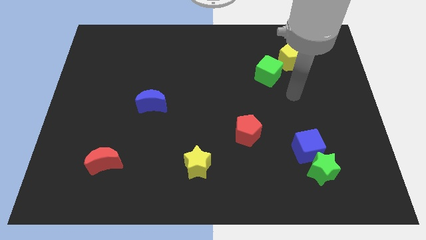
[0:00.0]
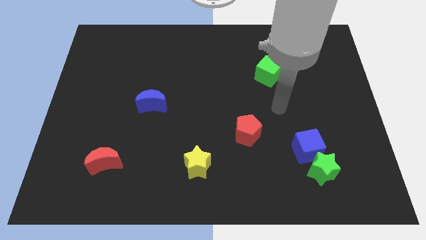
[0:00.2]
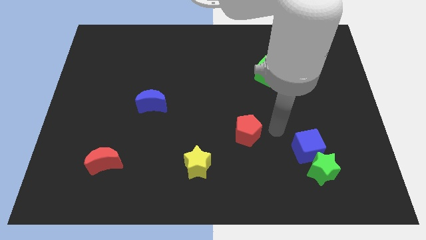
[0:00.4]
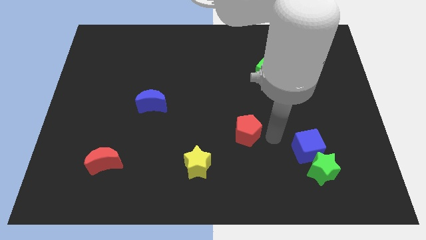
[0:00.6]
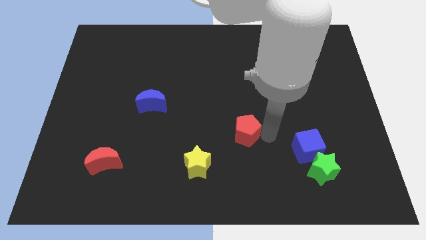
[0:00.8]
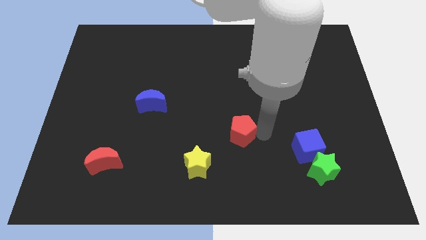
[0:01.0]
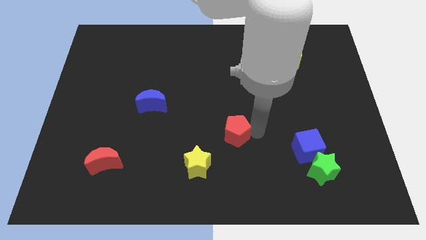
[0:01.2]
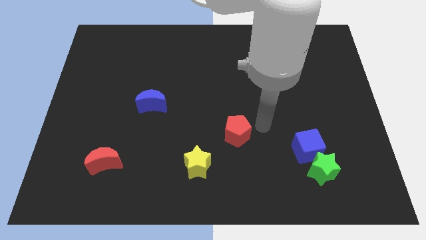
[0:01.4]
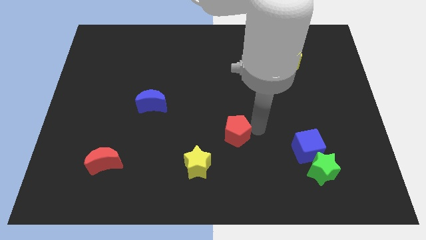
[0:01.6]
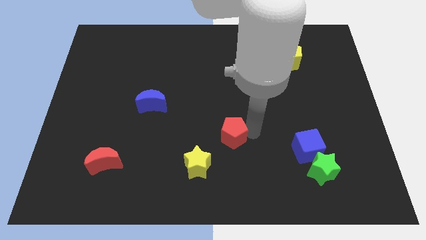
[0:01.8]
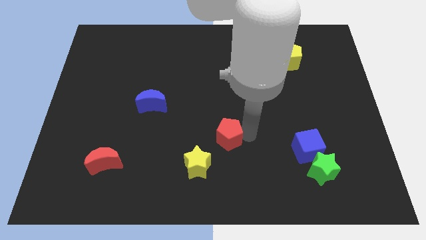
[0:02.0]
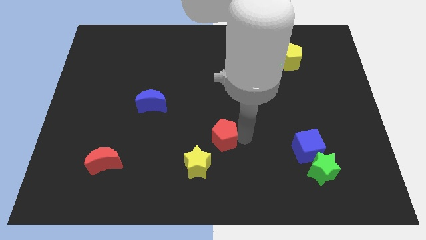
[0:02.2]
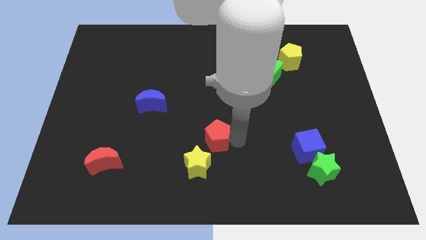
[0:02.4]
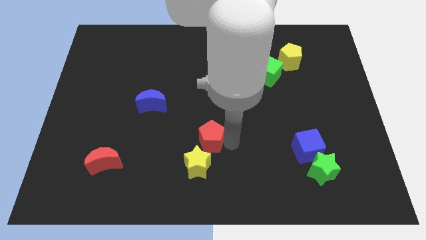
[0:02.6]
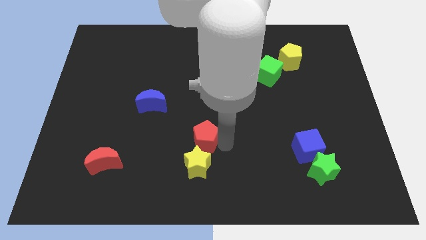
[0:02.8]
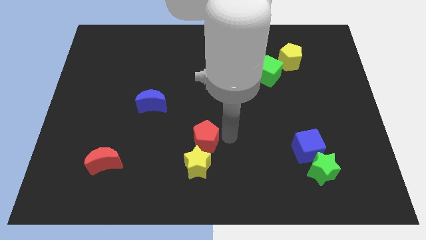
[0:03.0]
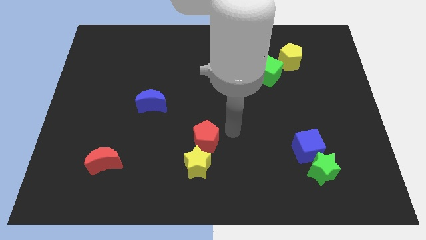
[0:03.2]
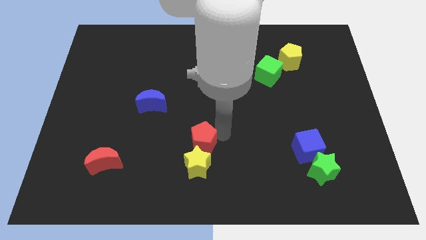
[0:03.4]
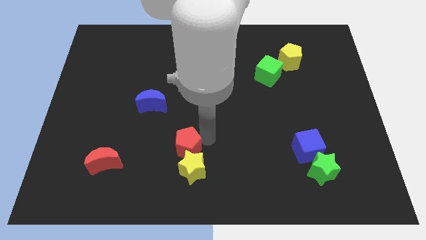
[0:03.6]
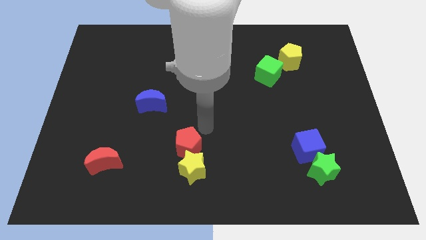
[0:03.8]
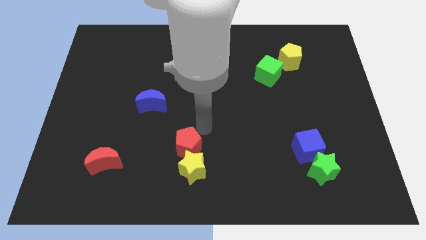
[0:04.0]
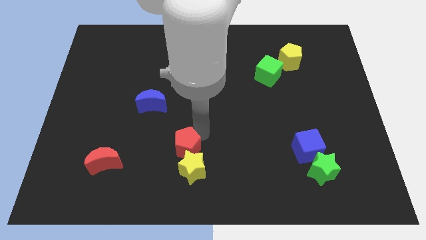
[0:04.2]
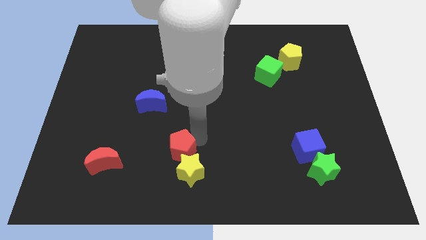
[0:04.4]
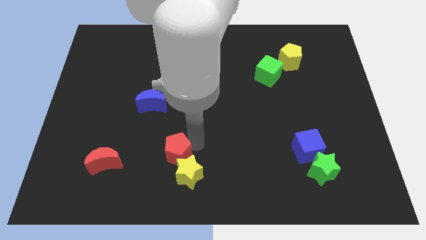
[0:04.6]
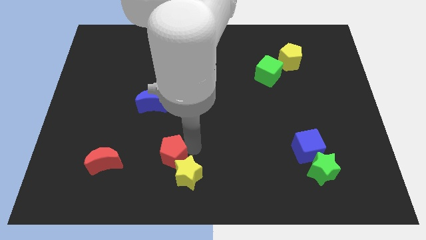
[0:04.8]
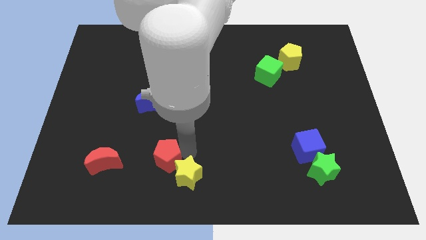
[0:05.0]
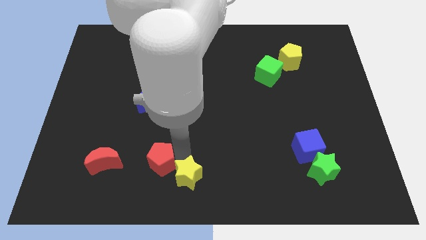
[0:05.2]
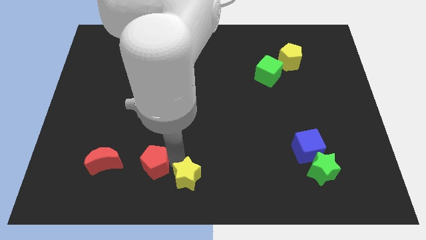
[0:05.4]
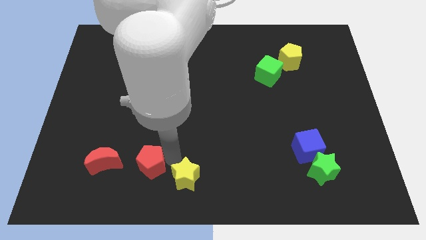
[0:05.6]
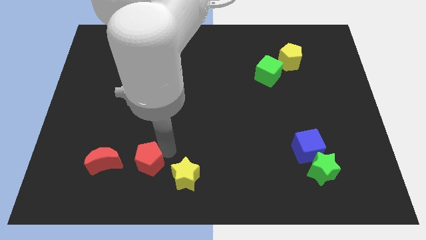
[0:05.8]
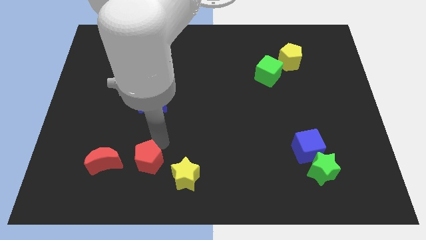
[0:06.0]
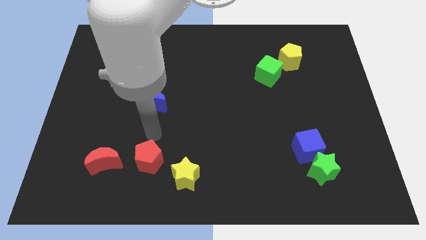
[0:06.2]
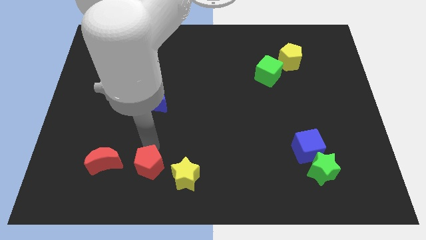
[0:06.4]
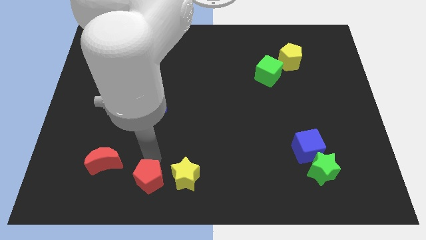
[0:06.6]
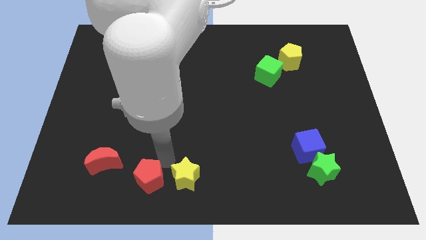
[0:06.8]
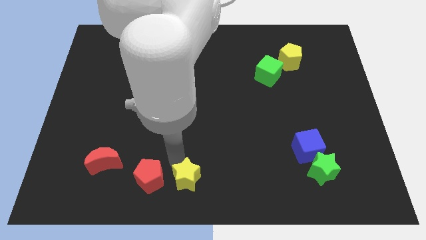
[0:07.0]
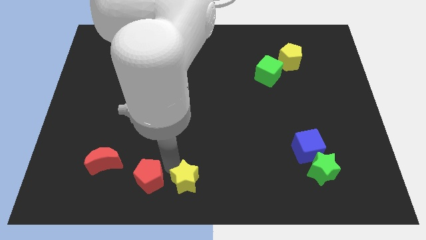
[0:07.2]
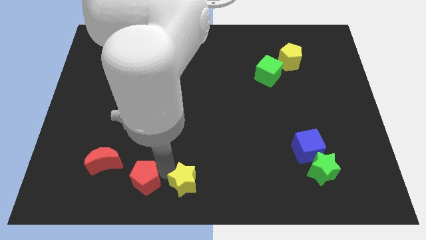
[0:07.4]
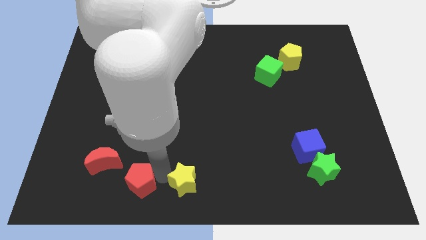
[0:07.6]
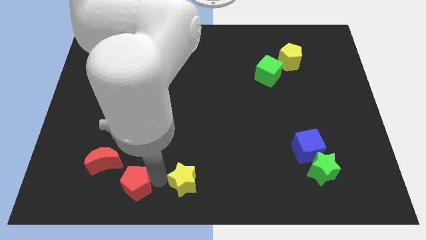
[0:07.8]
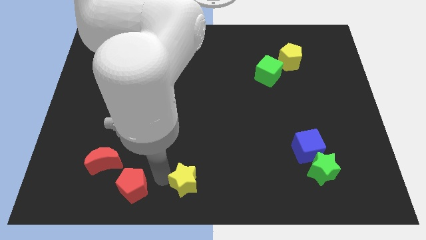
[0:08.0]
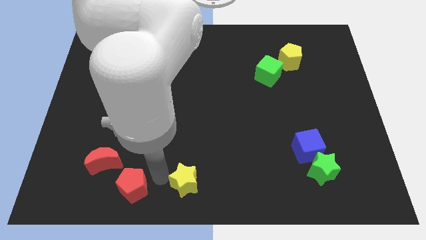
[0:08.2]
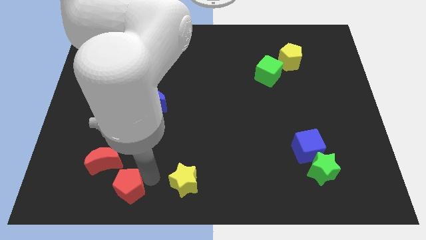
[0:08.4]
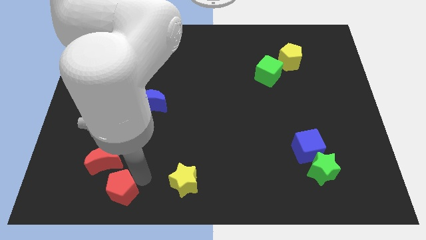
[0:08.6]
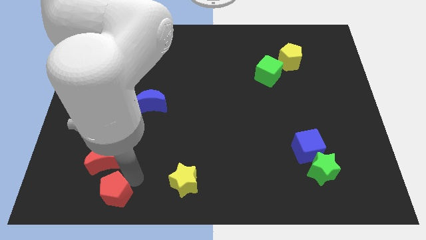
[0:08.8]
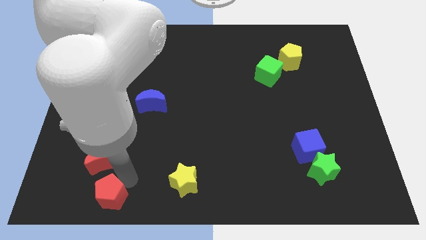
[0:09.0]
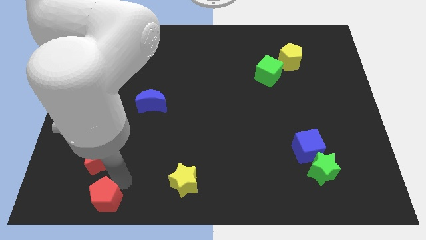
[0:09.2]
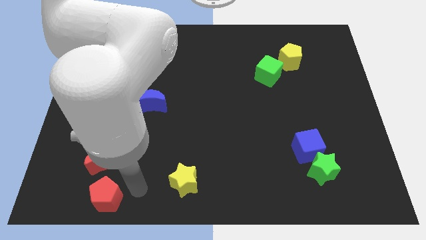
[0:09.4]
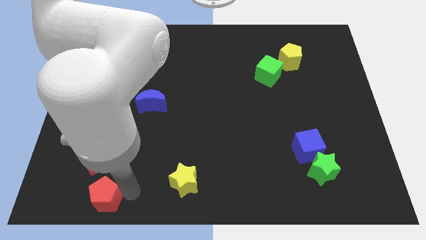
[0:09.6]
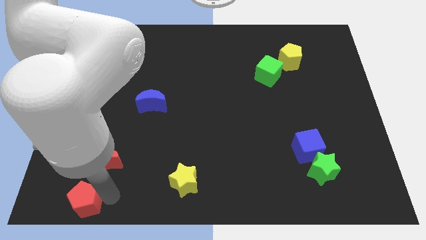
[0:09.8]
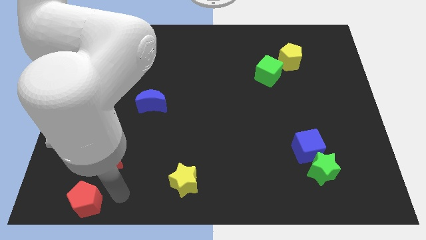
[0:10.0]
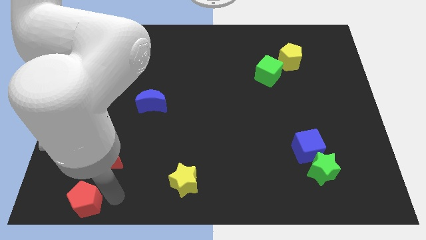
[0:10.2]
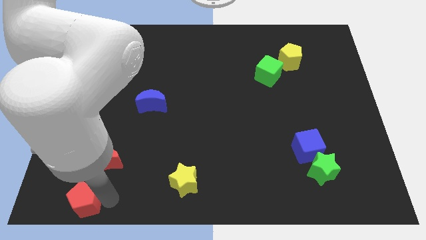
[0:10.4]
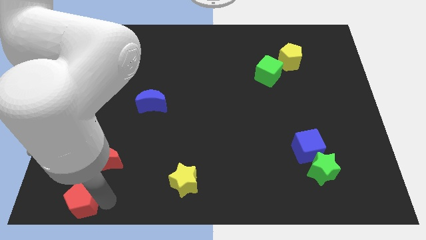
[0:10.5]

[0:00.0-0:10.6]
push the red pentagon to the bottom left of the board

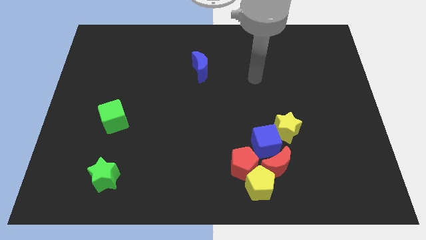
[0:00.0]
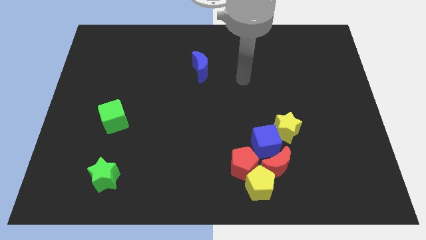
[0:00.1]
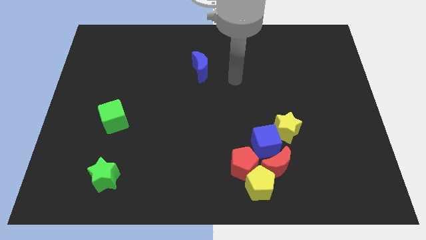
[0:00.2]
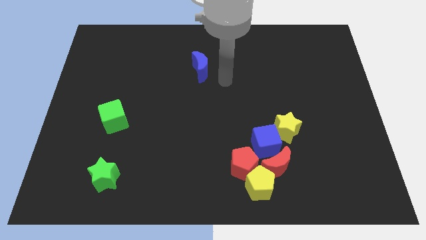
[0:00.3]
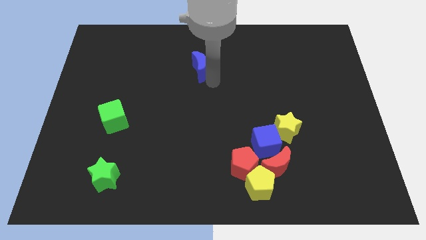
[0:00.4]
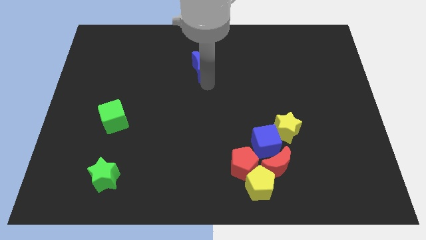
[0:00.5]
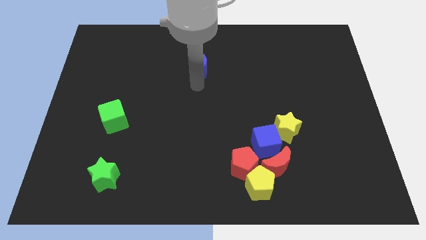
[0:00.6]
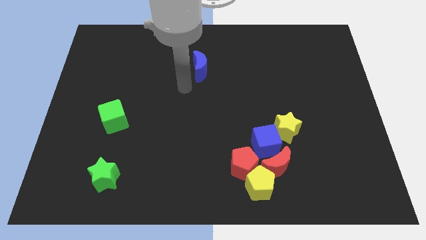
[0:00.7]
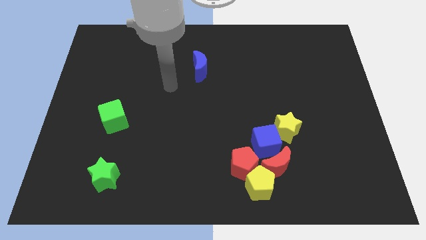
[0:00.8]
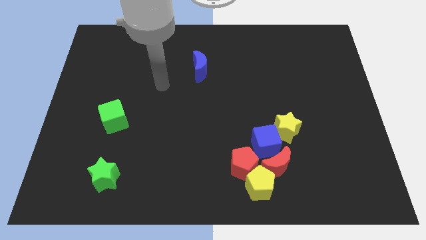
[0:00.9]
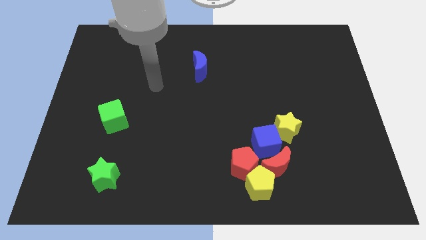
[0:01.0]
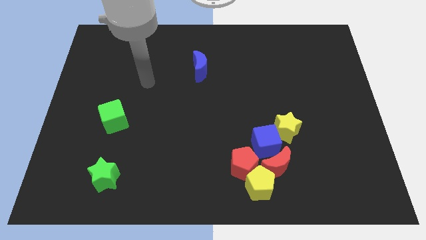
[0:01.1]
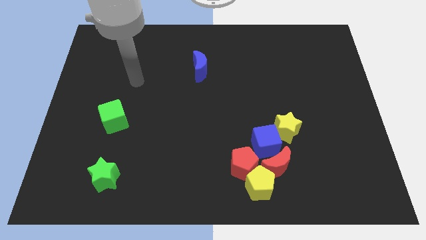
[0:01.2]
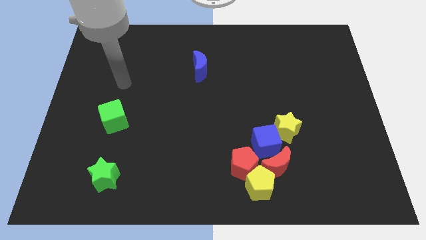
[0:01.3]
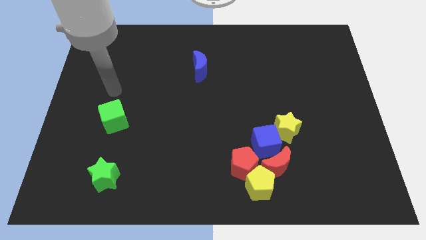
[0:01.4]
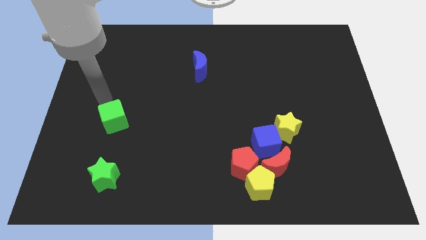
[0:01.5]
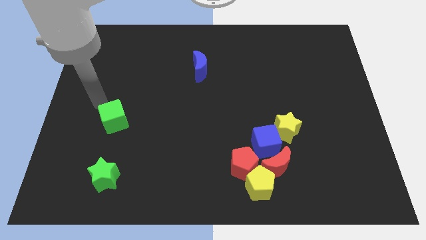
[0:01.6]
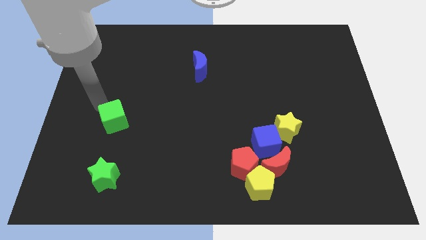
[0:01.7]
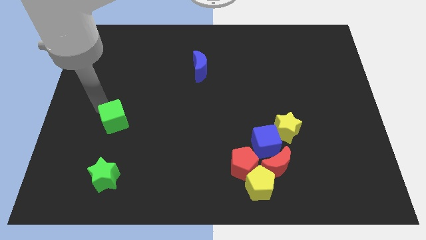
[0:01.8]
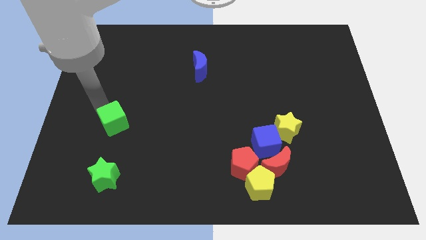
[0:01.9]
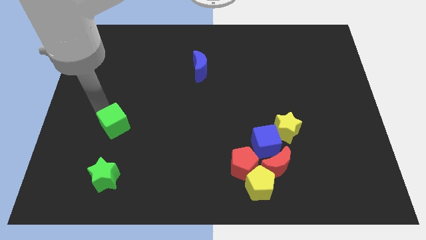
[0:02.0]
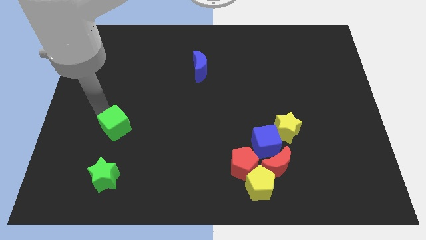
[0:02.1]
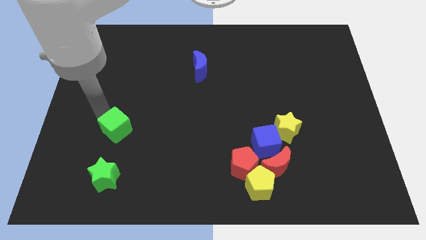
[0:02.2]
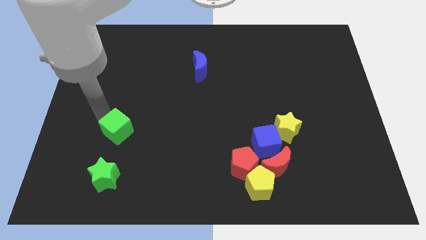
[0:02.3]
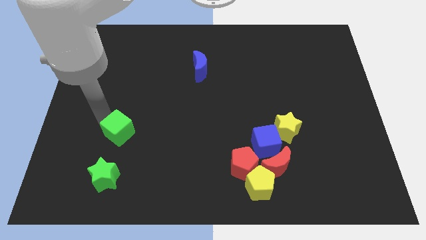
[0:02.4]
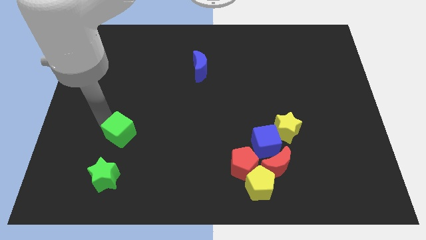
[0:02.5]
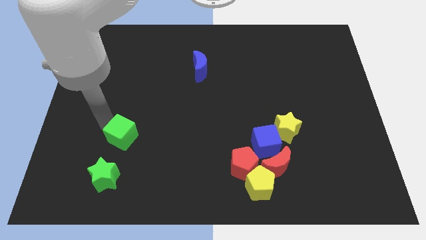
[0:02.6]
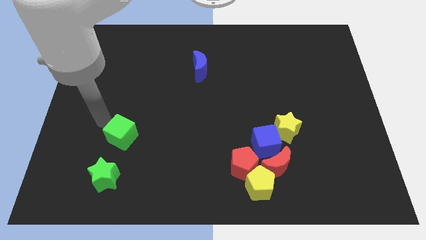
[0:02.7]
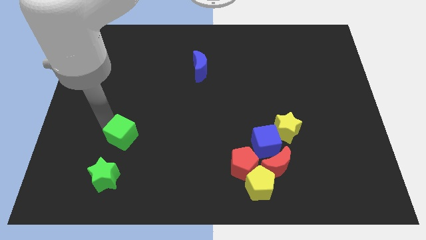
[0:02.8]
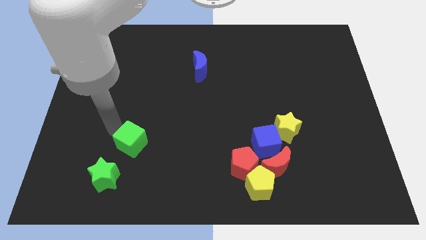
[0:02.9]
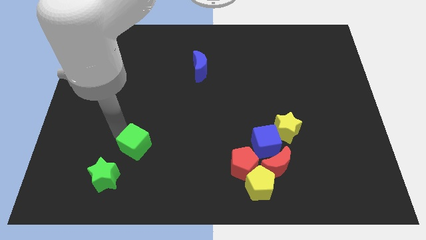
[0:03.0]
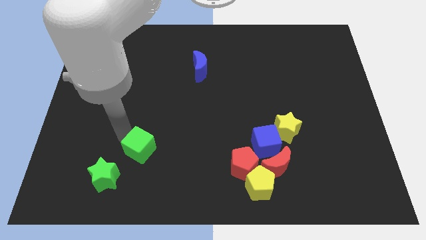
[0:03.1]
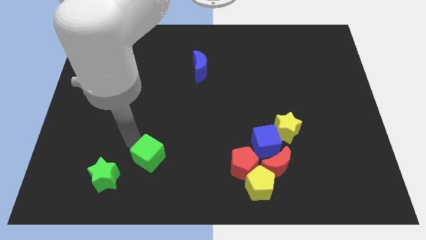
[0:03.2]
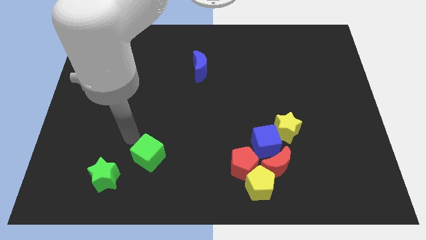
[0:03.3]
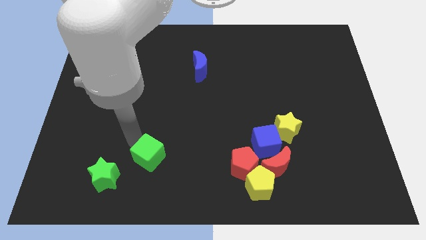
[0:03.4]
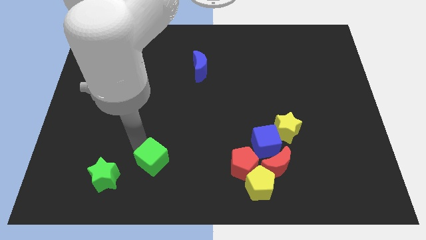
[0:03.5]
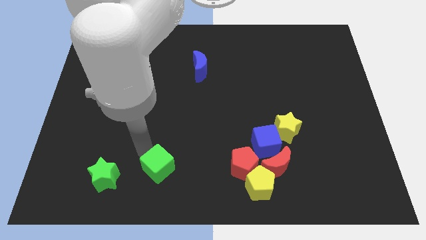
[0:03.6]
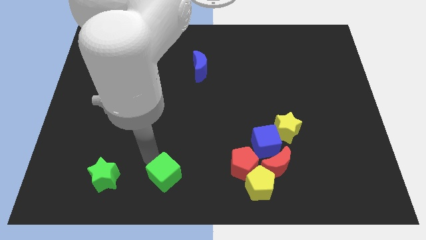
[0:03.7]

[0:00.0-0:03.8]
slide the green cube to the bottom side
